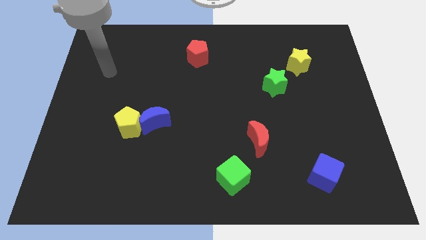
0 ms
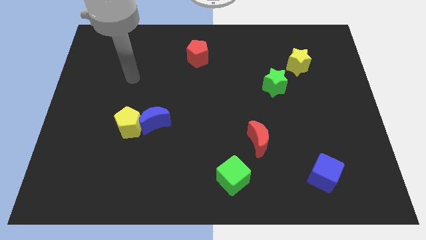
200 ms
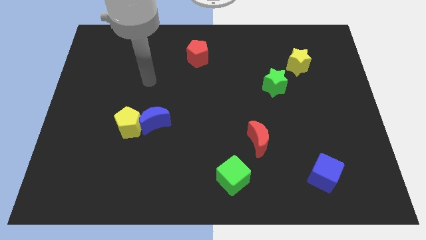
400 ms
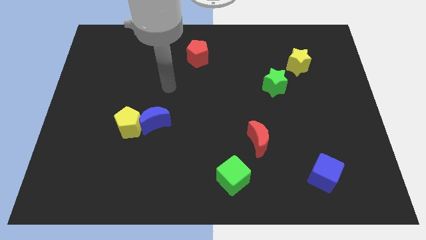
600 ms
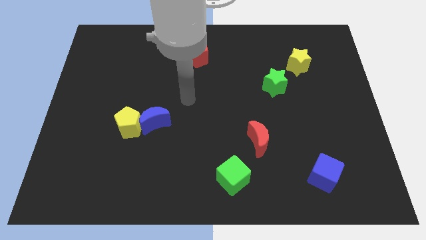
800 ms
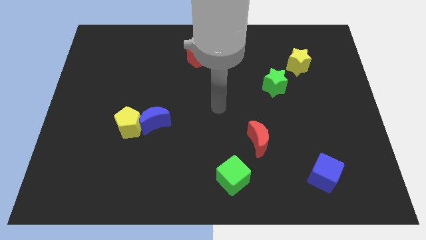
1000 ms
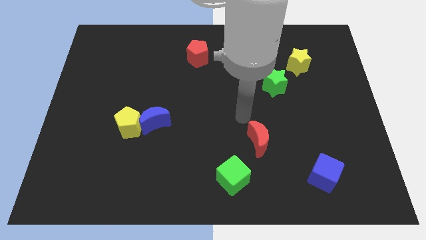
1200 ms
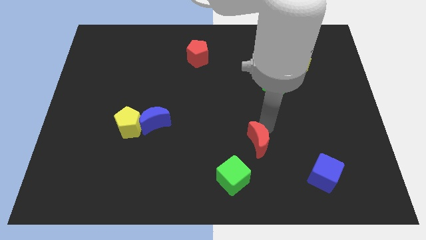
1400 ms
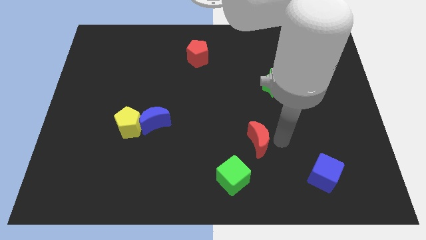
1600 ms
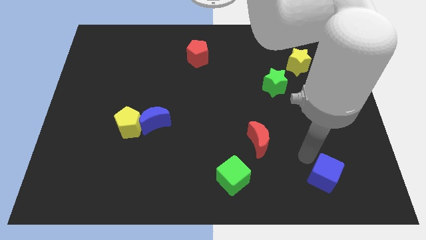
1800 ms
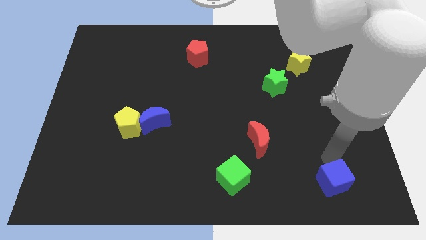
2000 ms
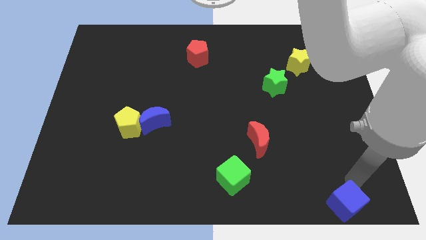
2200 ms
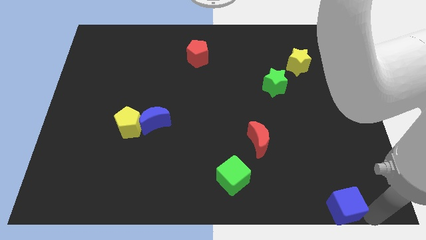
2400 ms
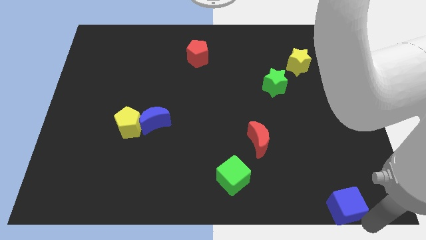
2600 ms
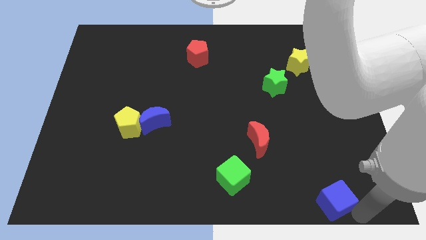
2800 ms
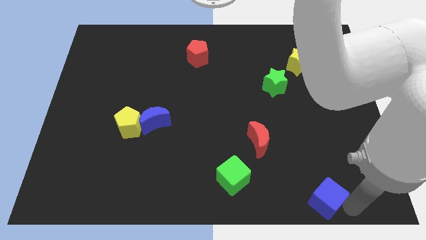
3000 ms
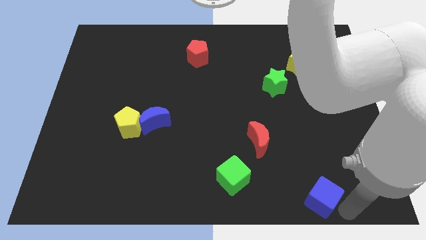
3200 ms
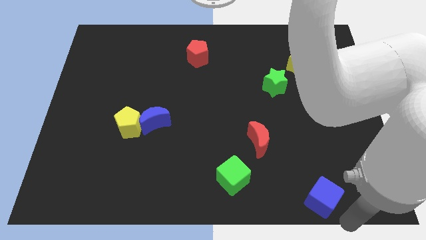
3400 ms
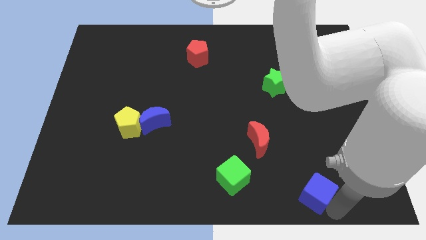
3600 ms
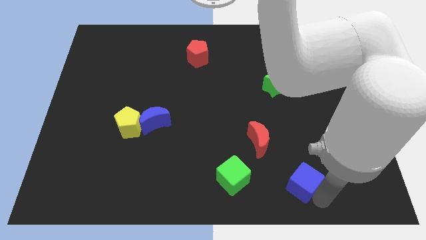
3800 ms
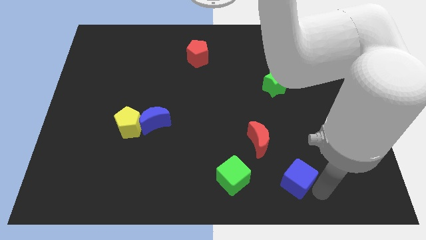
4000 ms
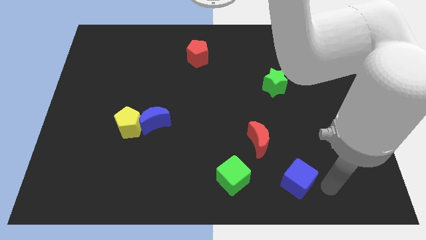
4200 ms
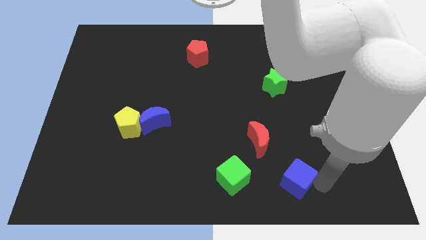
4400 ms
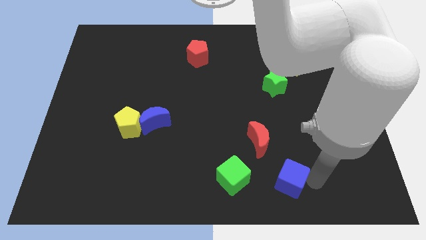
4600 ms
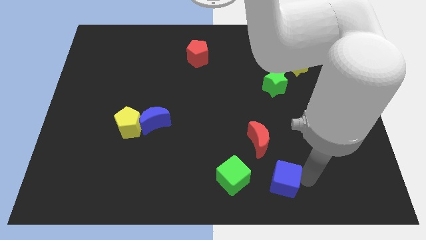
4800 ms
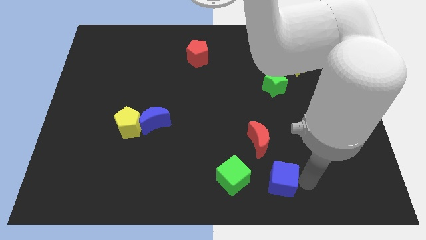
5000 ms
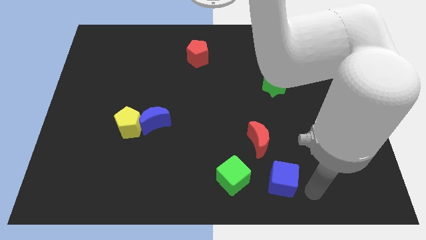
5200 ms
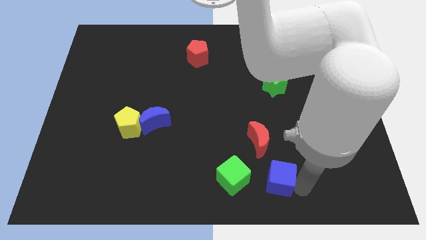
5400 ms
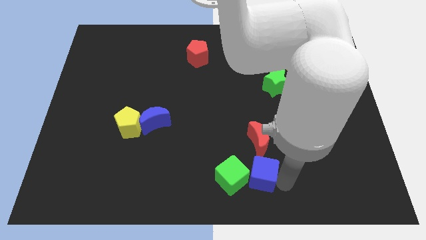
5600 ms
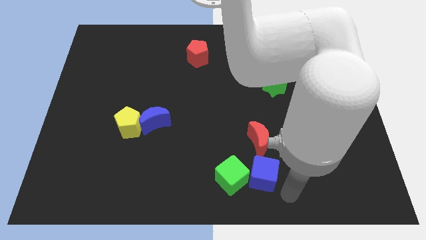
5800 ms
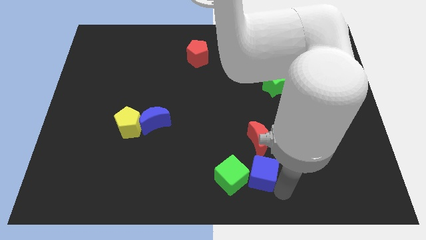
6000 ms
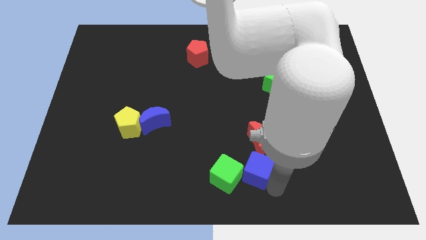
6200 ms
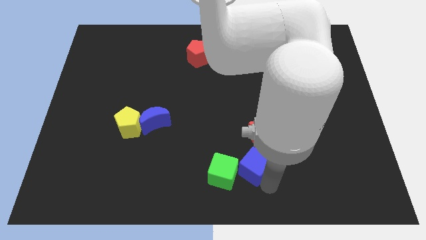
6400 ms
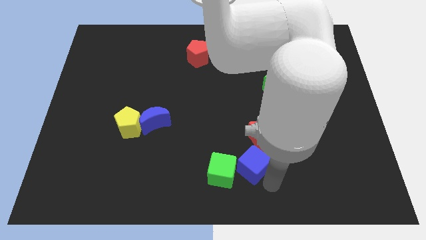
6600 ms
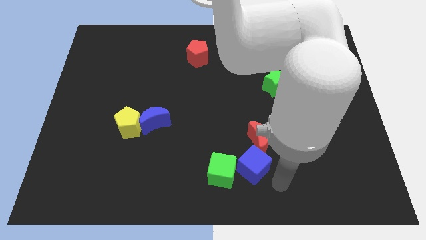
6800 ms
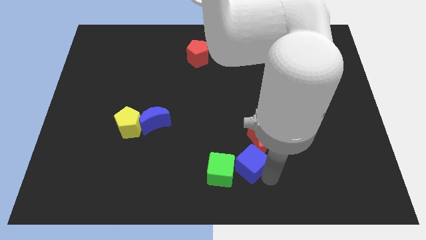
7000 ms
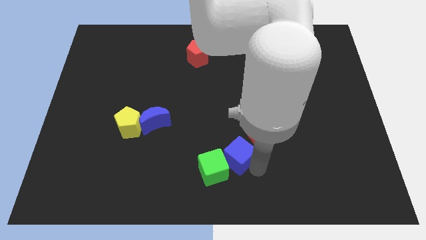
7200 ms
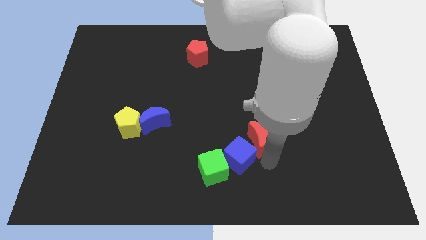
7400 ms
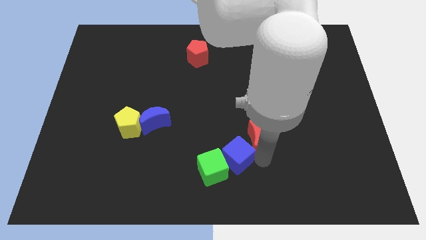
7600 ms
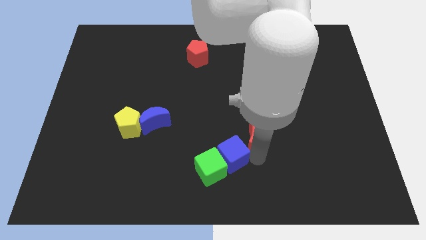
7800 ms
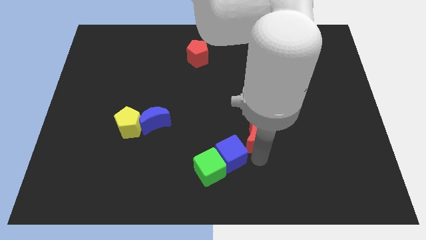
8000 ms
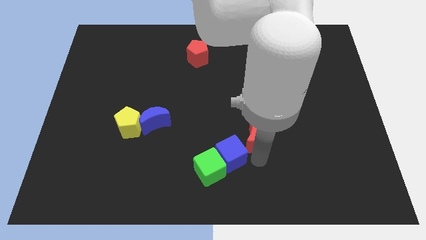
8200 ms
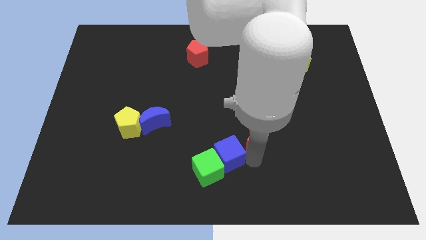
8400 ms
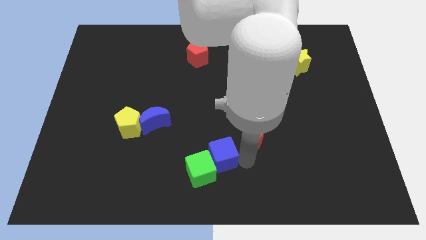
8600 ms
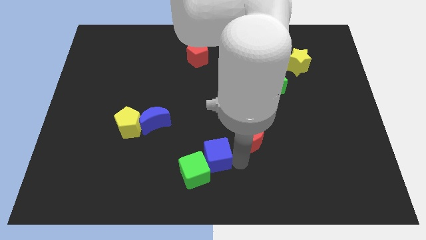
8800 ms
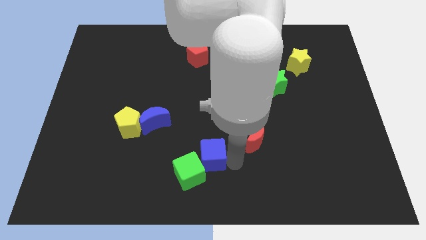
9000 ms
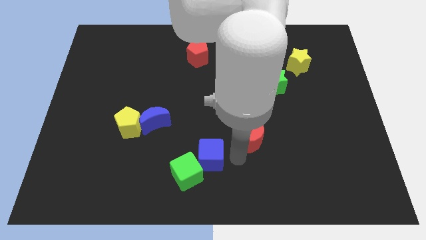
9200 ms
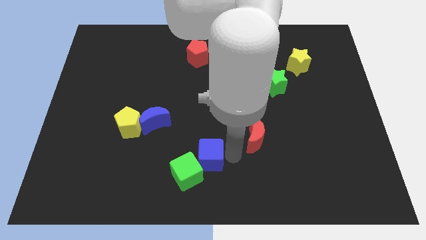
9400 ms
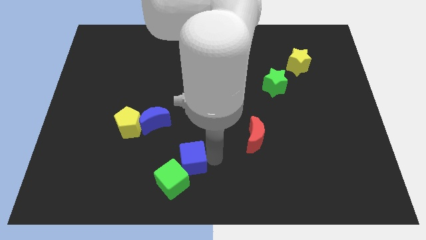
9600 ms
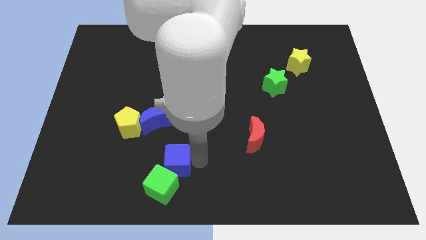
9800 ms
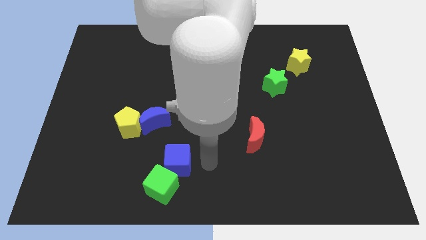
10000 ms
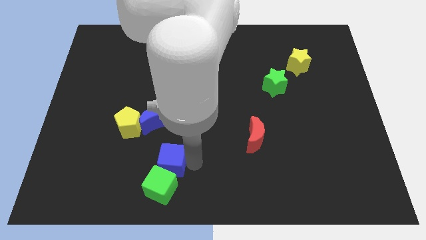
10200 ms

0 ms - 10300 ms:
slide the blue cube below the blue moon

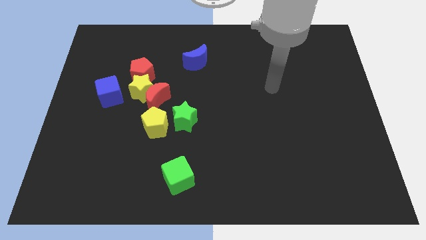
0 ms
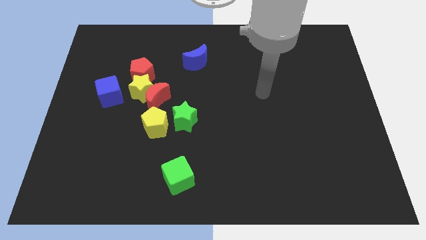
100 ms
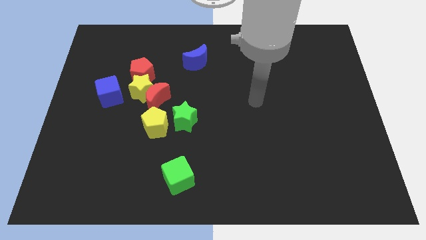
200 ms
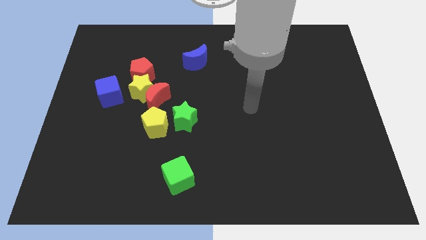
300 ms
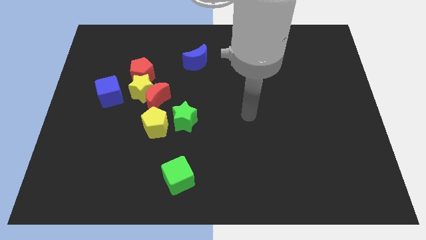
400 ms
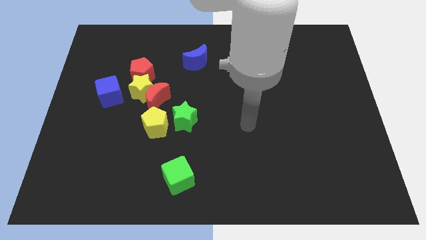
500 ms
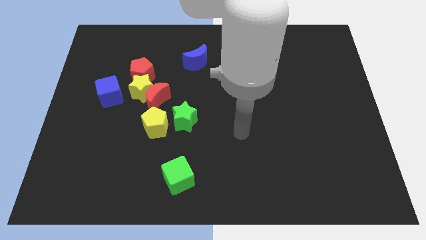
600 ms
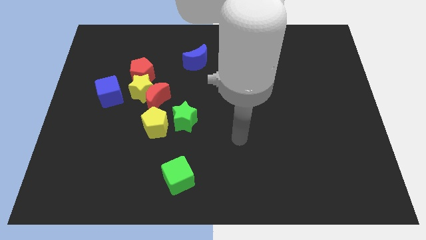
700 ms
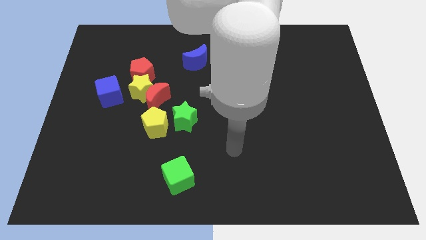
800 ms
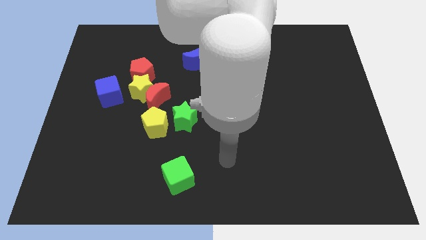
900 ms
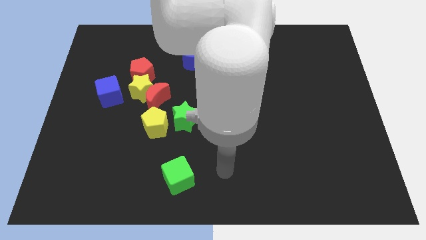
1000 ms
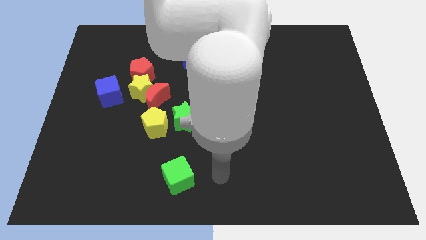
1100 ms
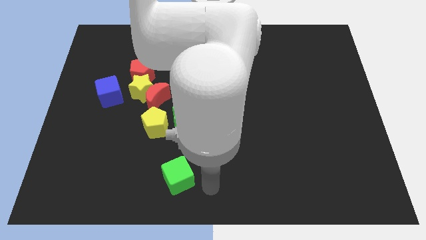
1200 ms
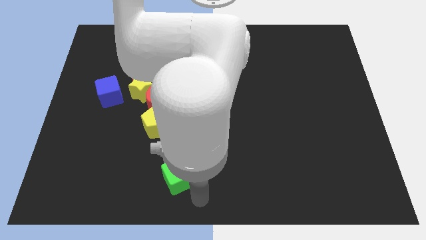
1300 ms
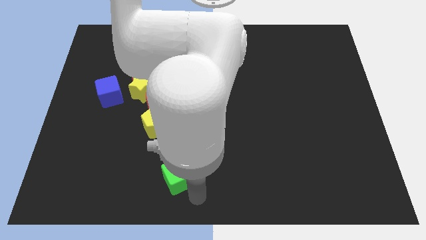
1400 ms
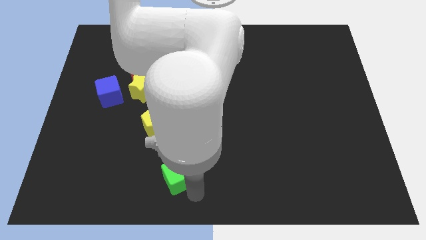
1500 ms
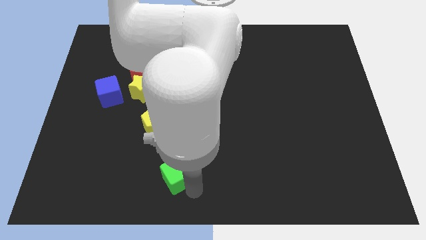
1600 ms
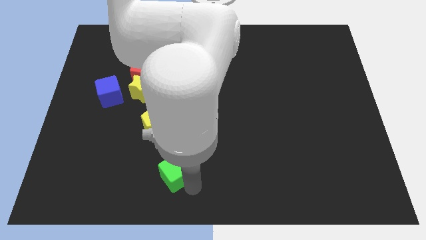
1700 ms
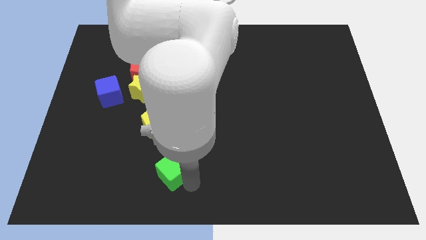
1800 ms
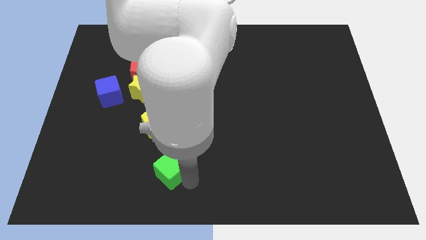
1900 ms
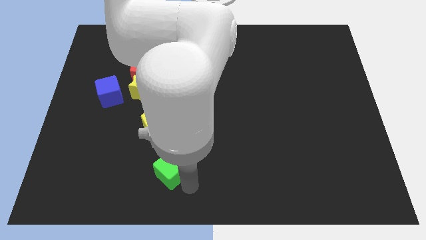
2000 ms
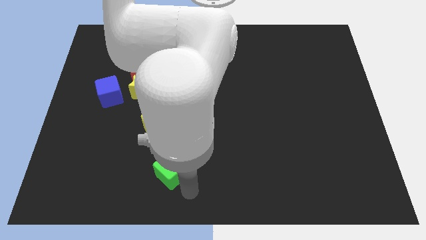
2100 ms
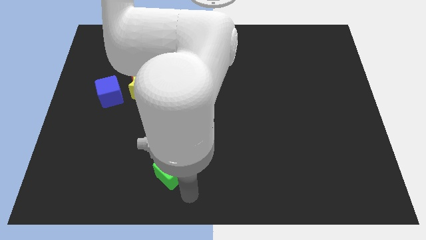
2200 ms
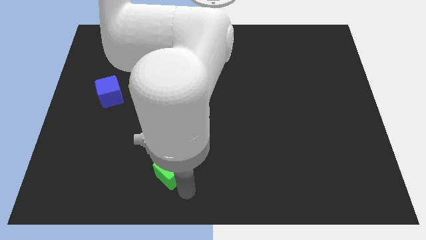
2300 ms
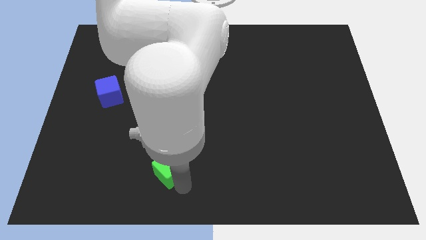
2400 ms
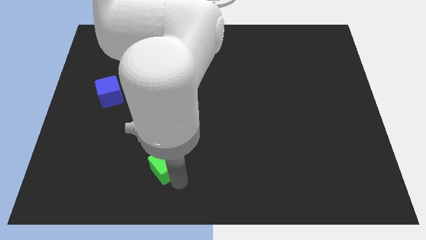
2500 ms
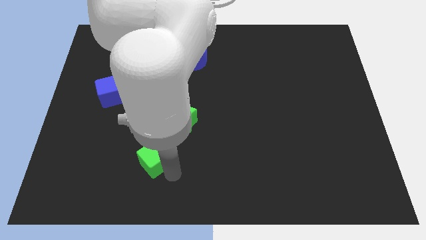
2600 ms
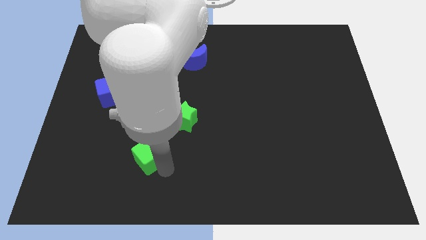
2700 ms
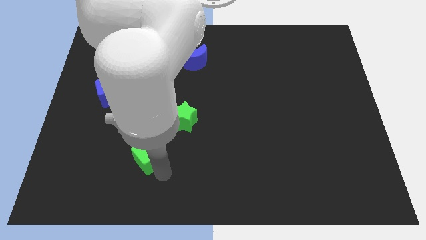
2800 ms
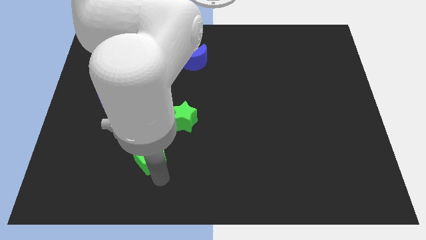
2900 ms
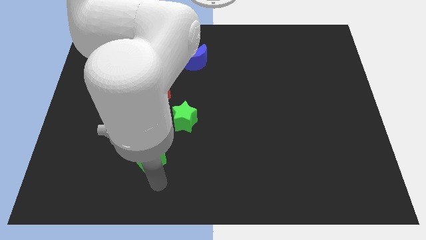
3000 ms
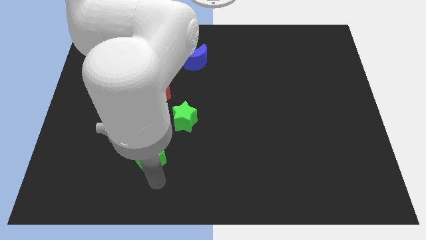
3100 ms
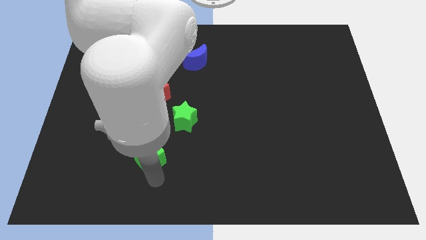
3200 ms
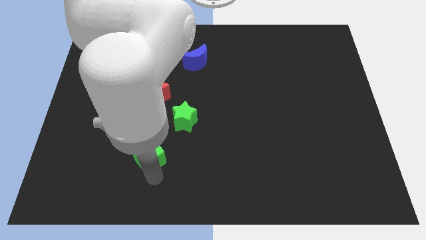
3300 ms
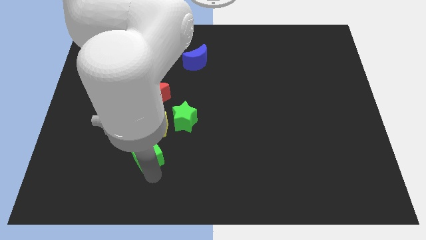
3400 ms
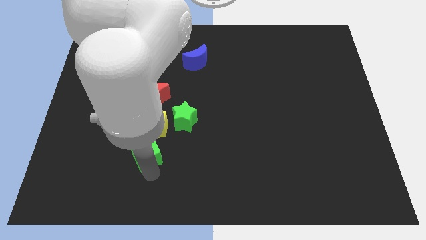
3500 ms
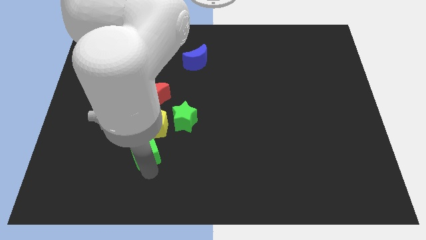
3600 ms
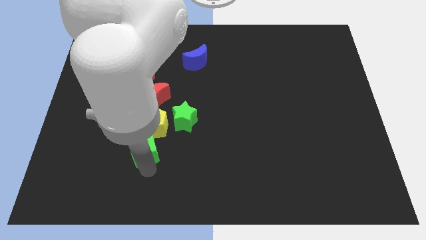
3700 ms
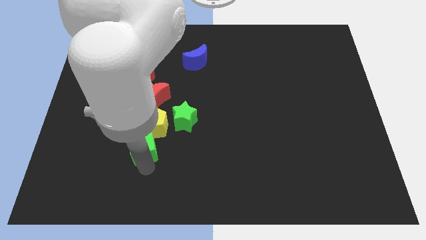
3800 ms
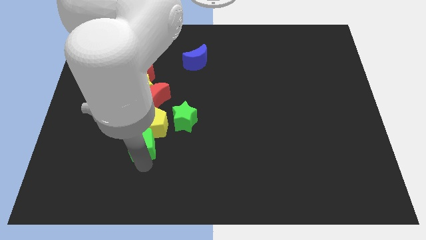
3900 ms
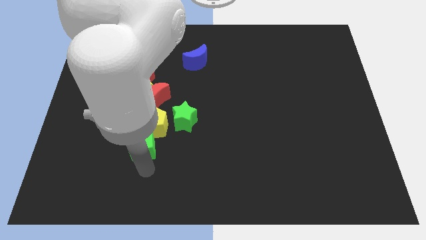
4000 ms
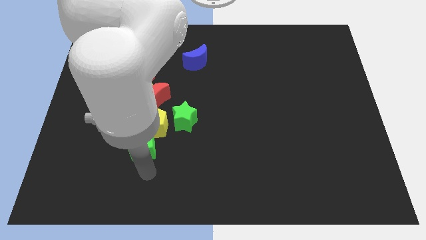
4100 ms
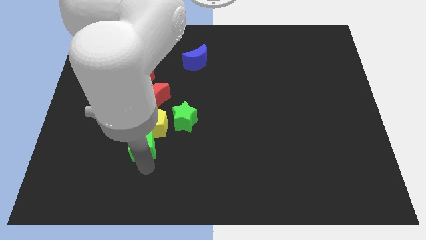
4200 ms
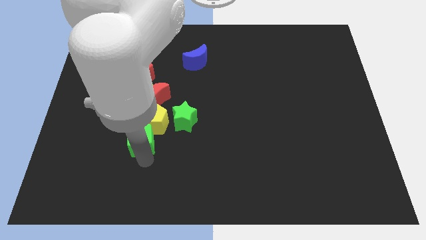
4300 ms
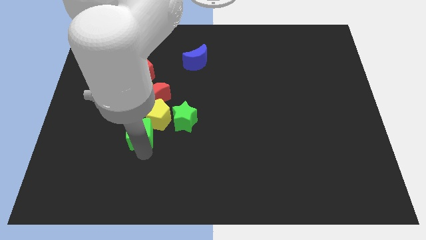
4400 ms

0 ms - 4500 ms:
slide the green cube to the left of the green star
